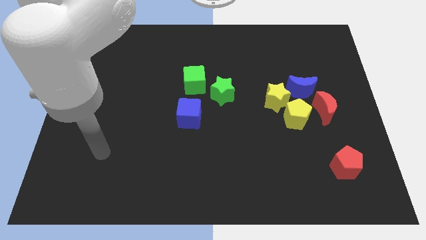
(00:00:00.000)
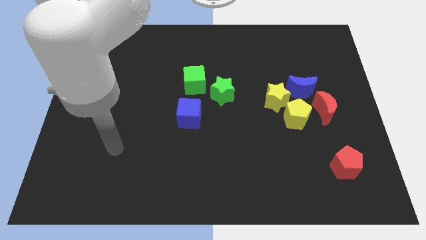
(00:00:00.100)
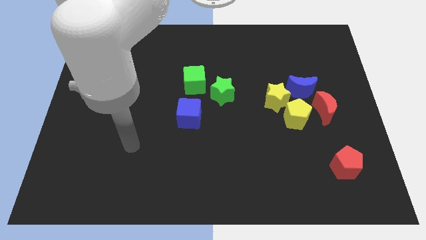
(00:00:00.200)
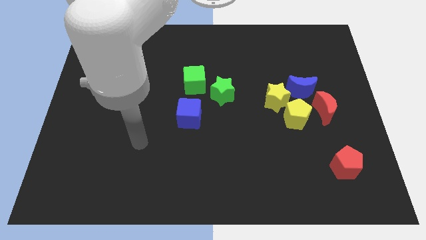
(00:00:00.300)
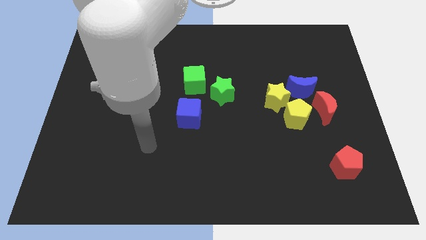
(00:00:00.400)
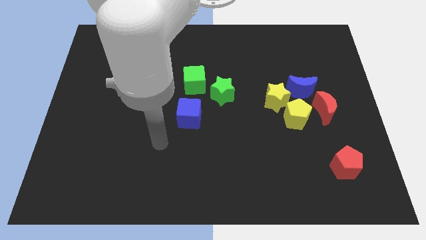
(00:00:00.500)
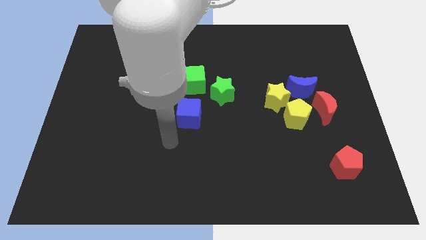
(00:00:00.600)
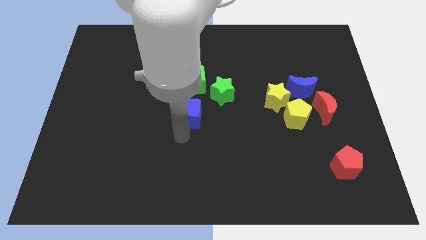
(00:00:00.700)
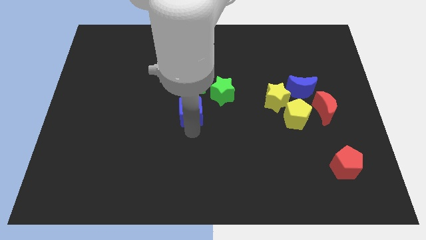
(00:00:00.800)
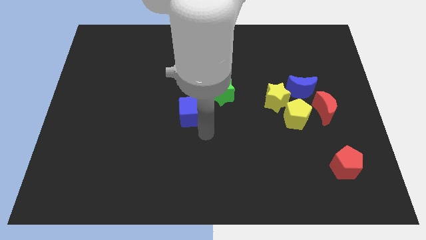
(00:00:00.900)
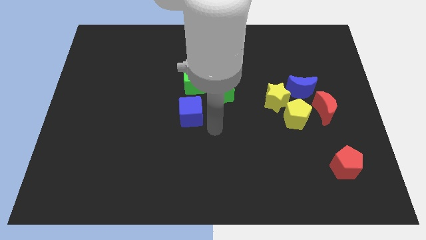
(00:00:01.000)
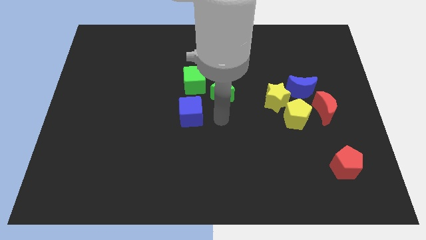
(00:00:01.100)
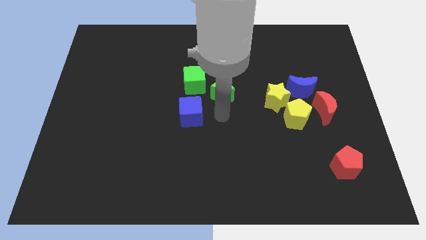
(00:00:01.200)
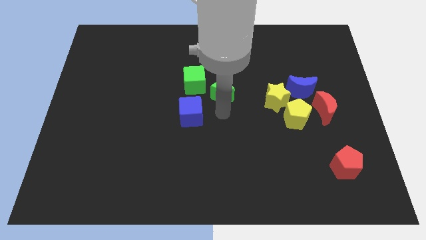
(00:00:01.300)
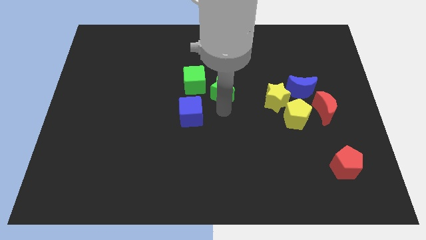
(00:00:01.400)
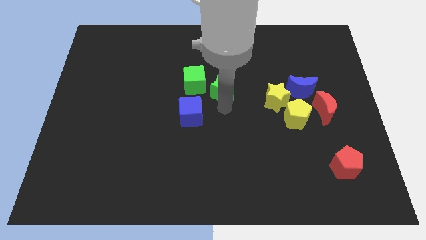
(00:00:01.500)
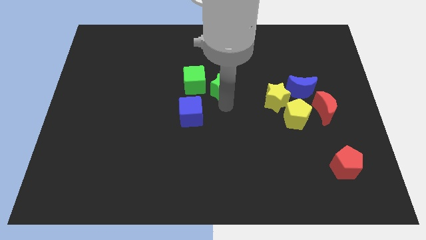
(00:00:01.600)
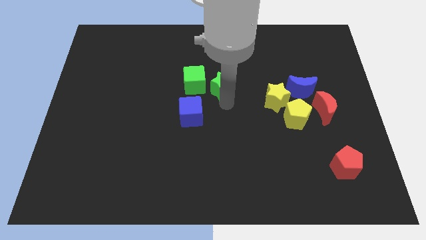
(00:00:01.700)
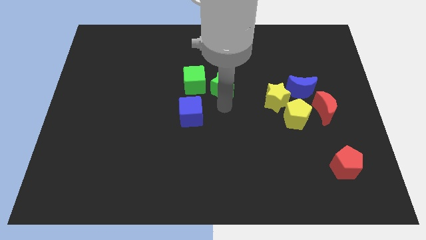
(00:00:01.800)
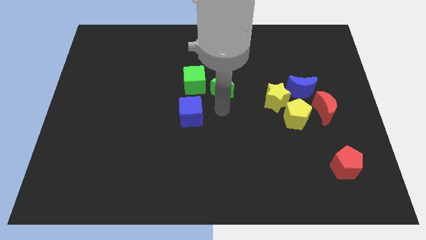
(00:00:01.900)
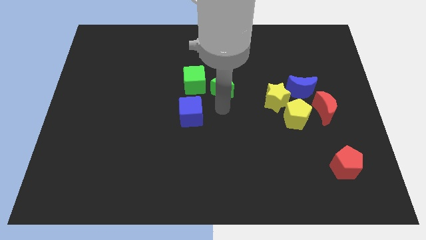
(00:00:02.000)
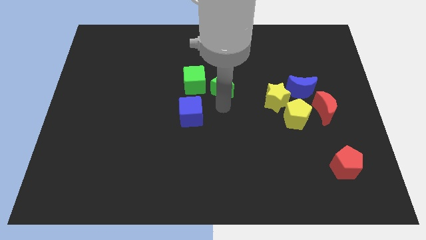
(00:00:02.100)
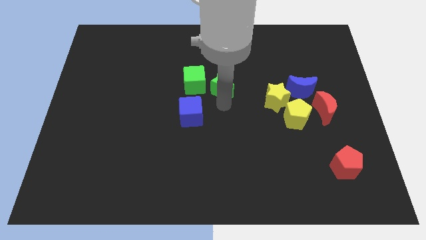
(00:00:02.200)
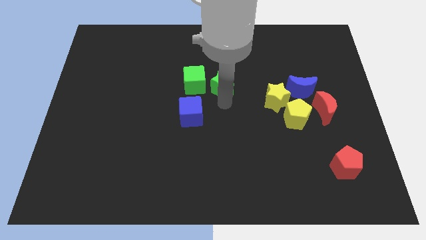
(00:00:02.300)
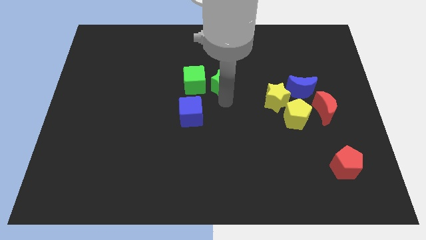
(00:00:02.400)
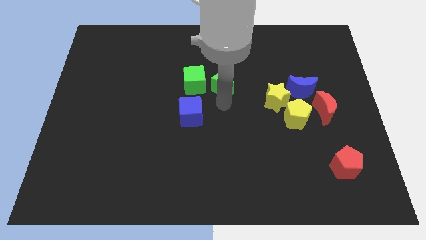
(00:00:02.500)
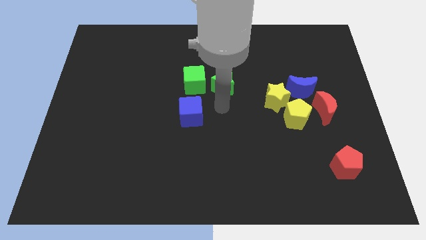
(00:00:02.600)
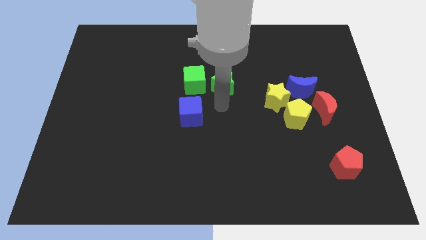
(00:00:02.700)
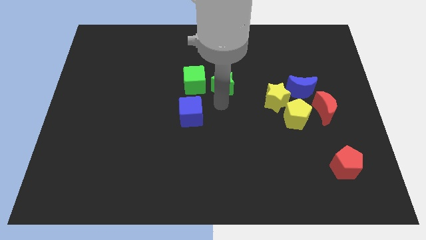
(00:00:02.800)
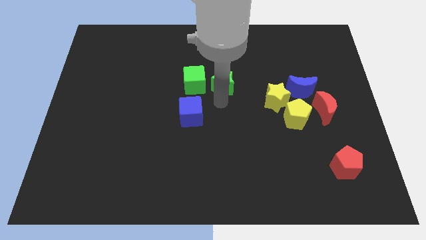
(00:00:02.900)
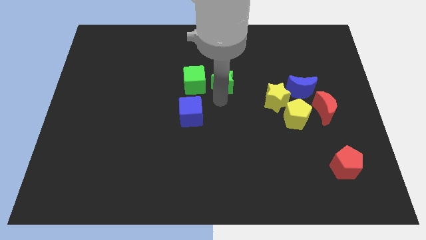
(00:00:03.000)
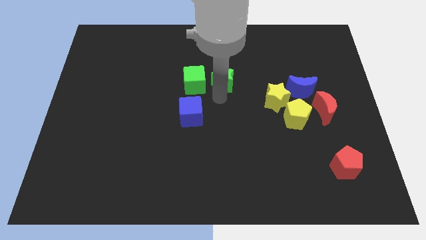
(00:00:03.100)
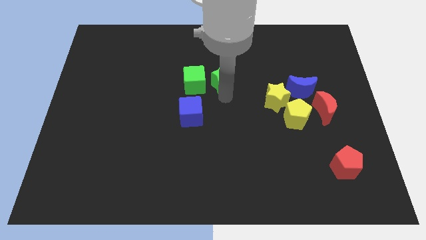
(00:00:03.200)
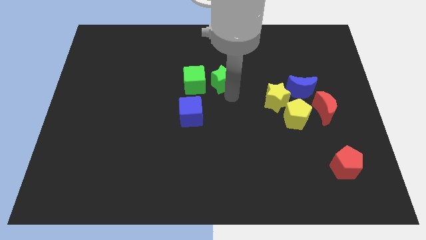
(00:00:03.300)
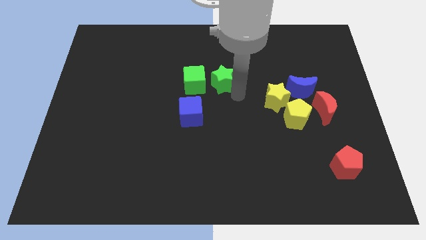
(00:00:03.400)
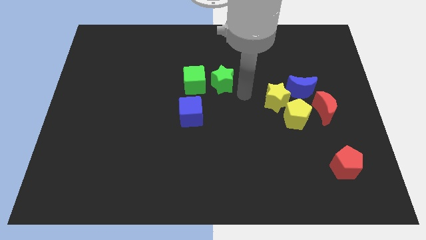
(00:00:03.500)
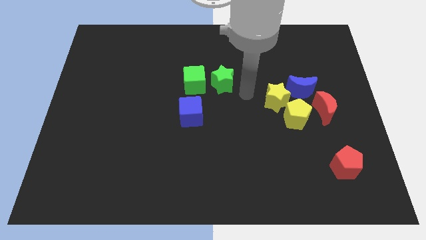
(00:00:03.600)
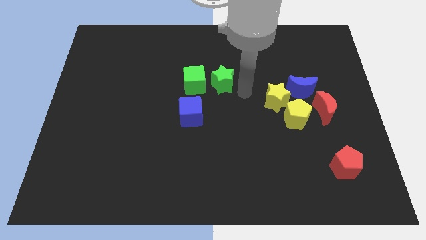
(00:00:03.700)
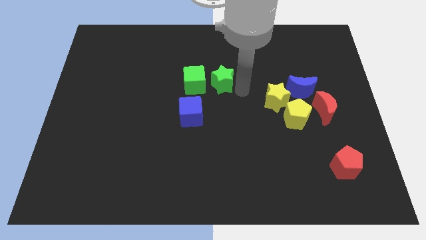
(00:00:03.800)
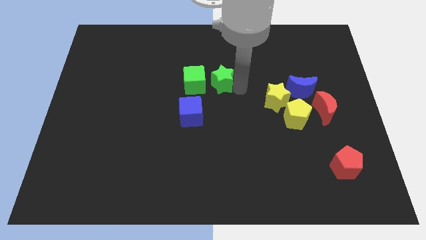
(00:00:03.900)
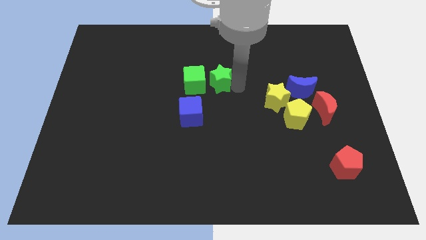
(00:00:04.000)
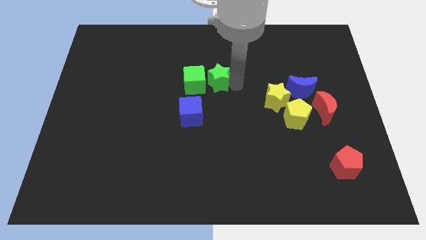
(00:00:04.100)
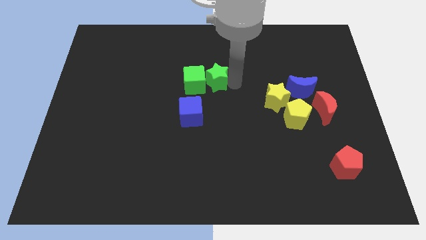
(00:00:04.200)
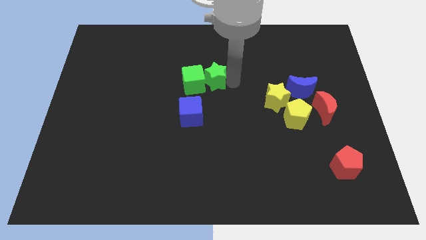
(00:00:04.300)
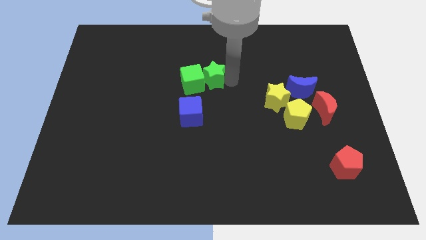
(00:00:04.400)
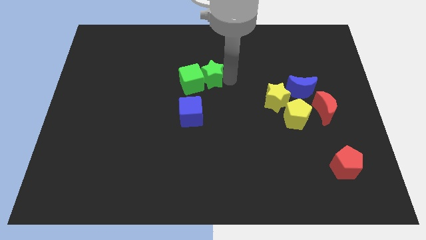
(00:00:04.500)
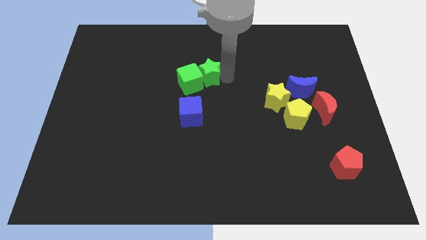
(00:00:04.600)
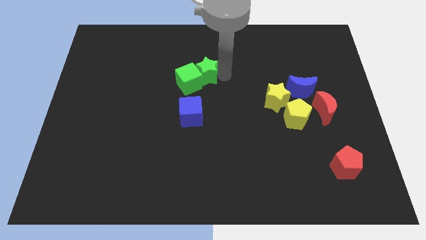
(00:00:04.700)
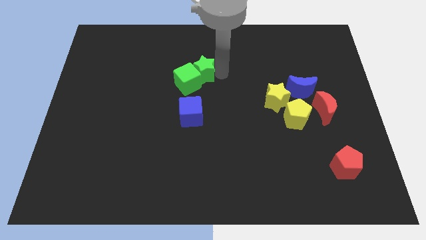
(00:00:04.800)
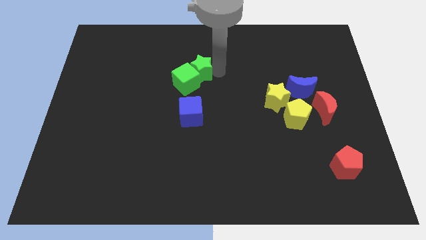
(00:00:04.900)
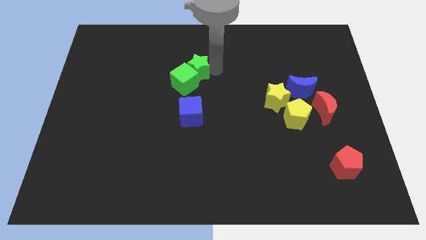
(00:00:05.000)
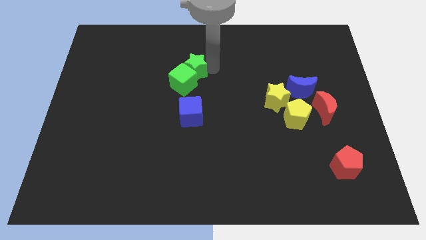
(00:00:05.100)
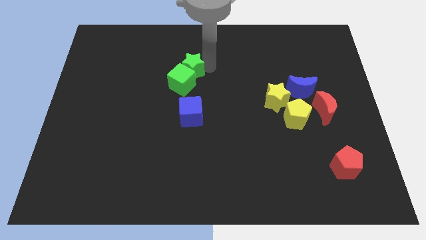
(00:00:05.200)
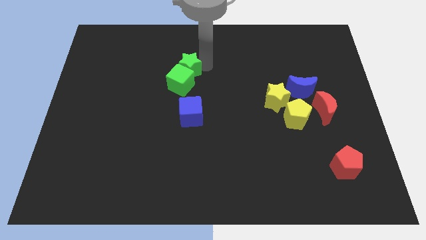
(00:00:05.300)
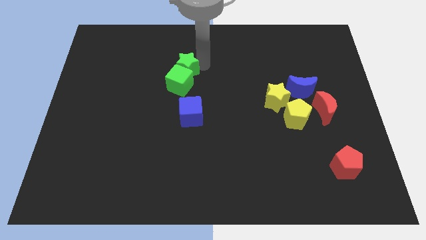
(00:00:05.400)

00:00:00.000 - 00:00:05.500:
push the green star diagonally up and to the left of the green cube

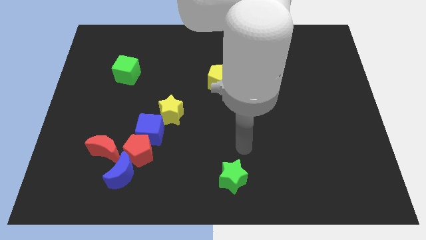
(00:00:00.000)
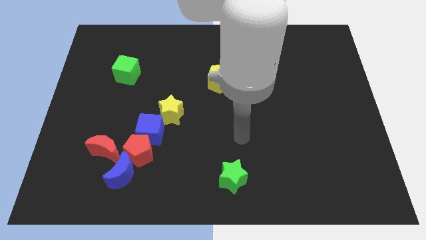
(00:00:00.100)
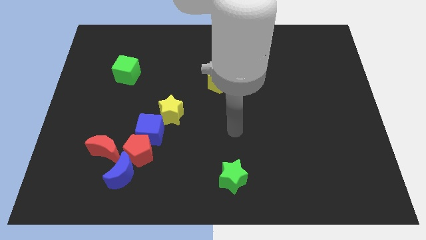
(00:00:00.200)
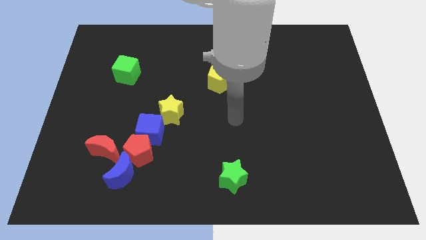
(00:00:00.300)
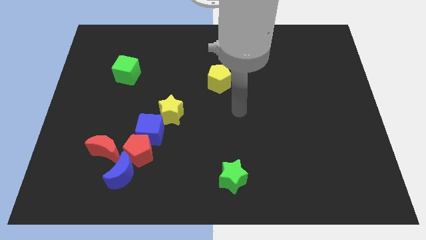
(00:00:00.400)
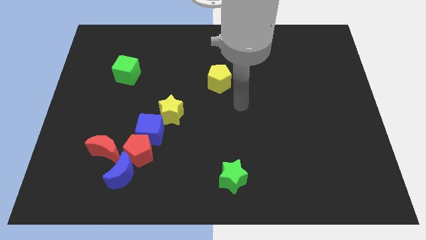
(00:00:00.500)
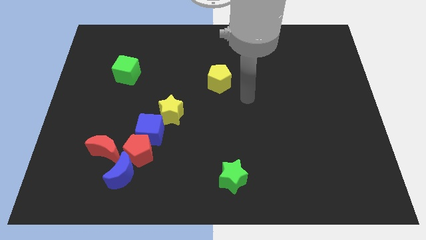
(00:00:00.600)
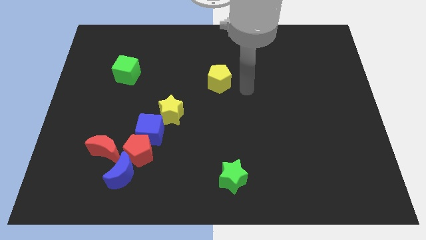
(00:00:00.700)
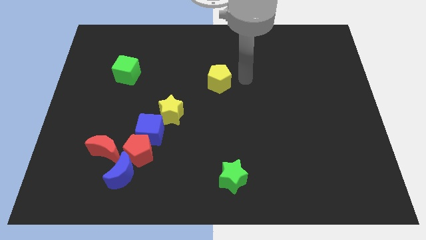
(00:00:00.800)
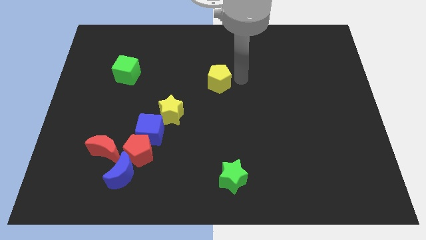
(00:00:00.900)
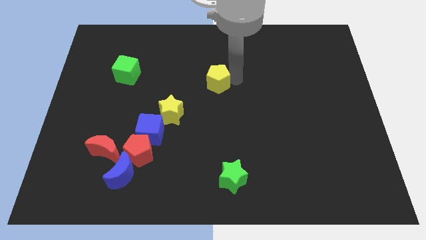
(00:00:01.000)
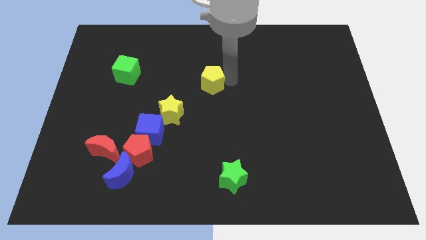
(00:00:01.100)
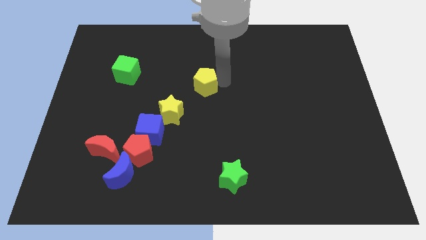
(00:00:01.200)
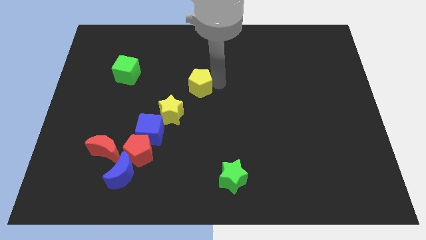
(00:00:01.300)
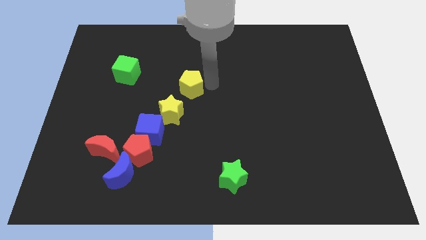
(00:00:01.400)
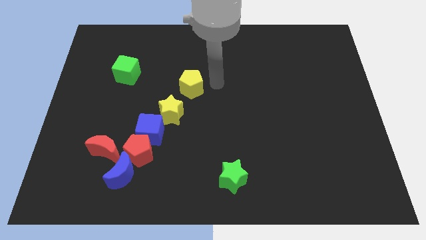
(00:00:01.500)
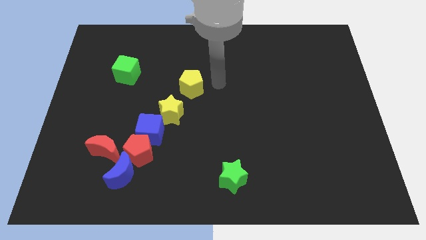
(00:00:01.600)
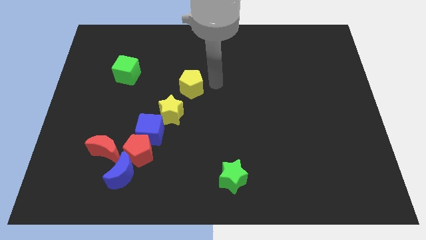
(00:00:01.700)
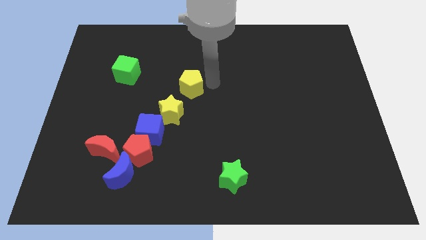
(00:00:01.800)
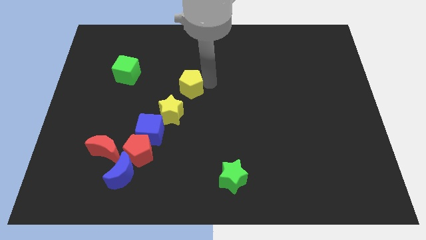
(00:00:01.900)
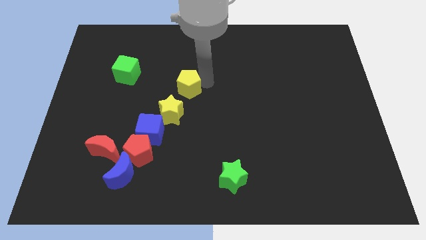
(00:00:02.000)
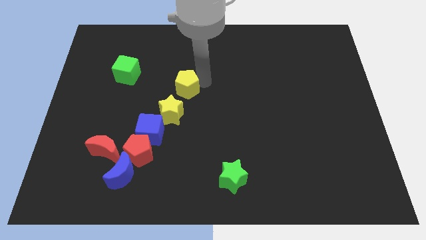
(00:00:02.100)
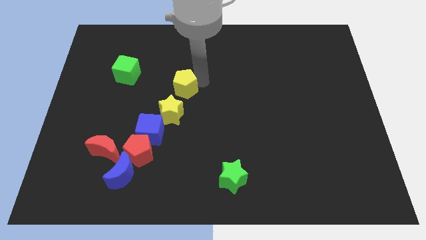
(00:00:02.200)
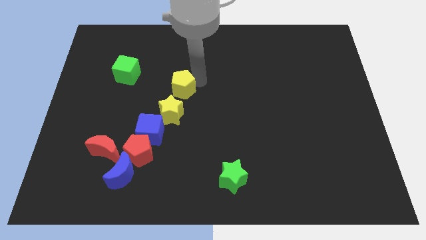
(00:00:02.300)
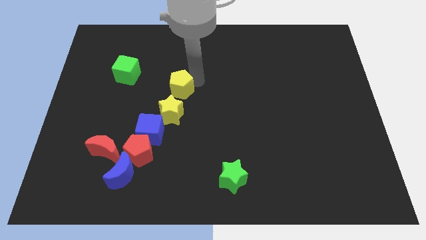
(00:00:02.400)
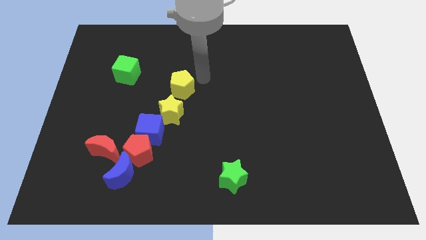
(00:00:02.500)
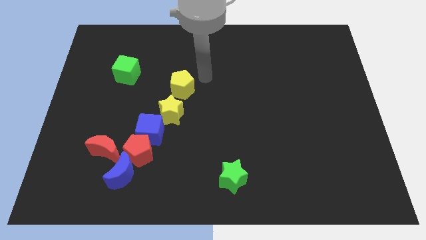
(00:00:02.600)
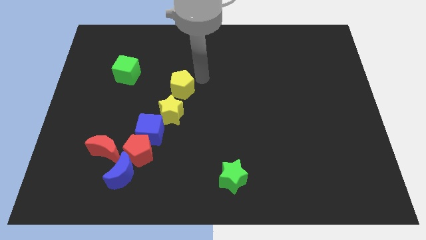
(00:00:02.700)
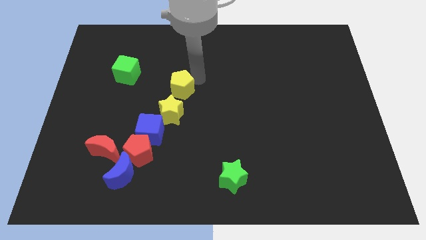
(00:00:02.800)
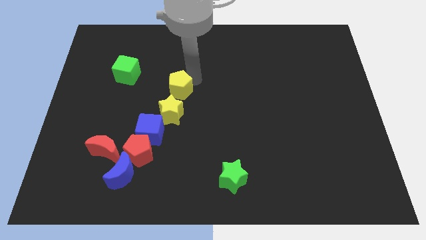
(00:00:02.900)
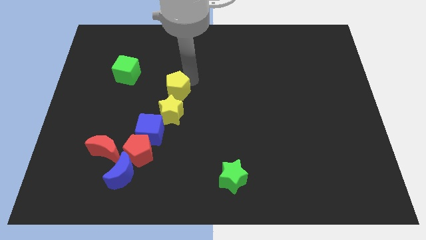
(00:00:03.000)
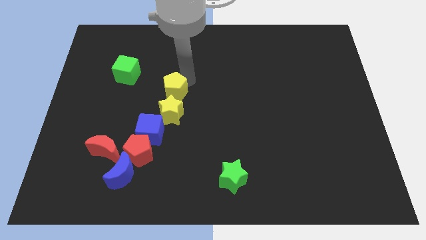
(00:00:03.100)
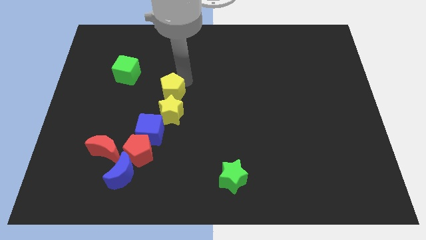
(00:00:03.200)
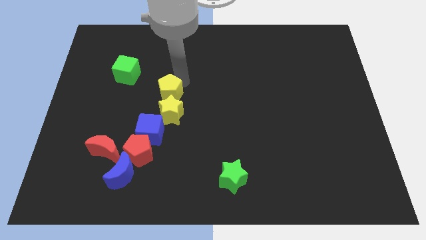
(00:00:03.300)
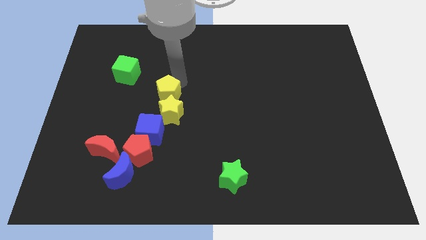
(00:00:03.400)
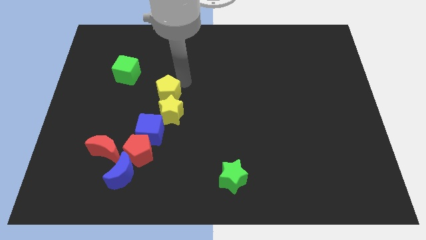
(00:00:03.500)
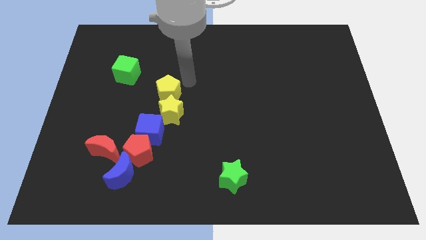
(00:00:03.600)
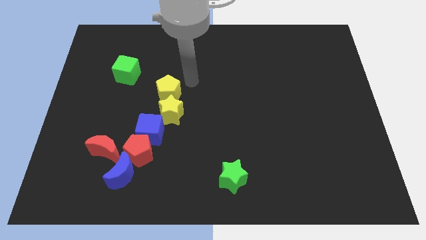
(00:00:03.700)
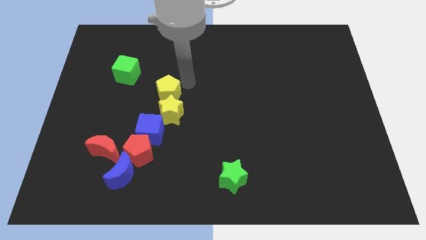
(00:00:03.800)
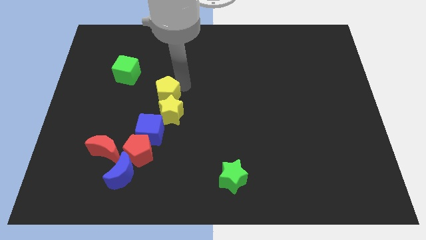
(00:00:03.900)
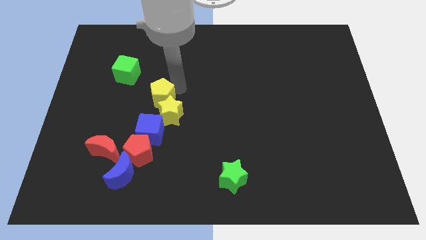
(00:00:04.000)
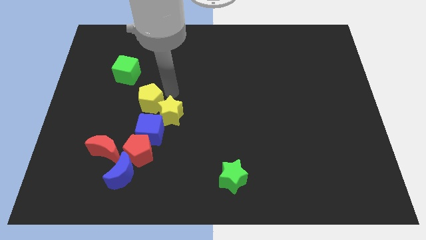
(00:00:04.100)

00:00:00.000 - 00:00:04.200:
push the yellow pentagon to the left of the yellow star
